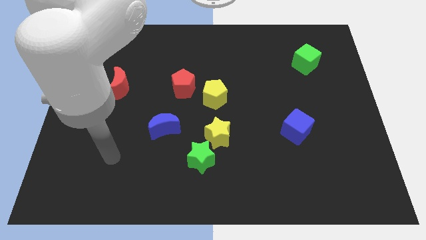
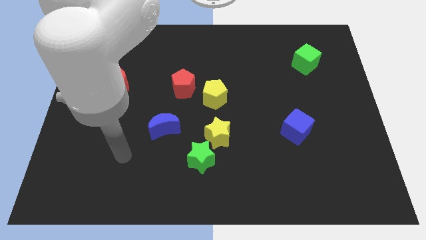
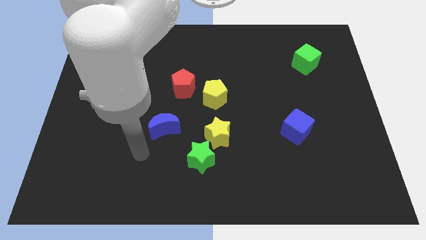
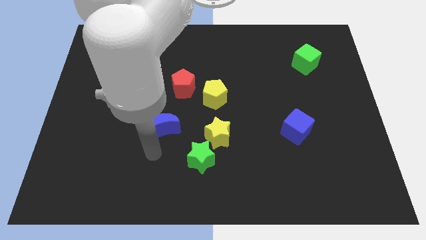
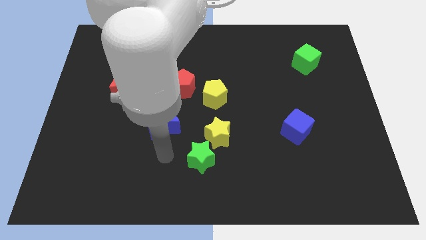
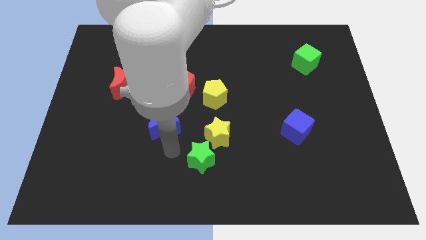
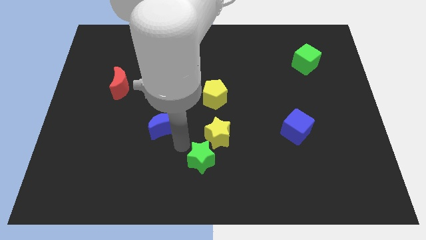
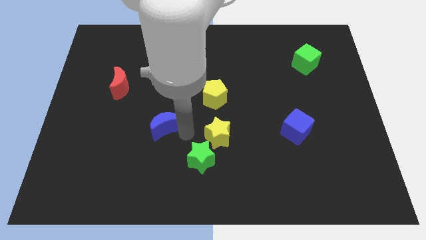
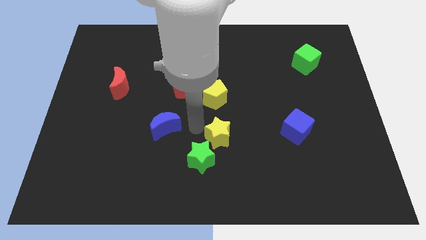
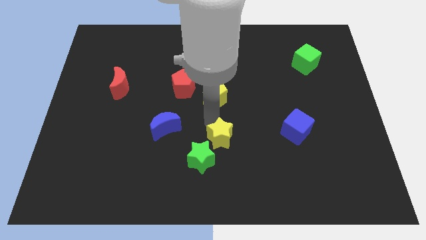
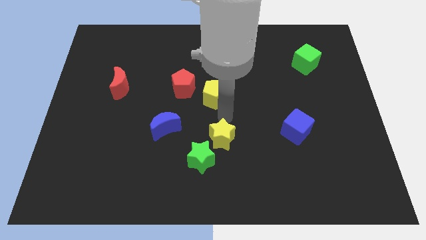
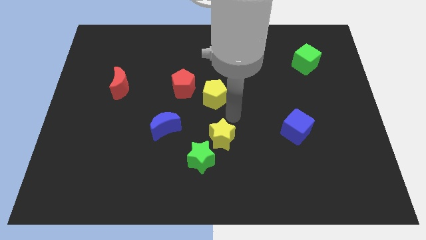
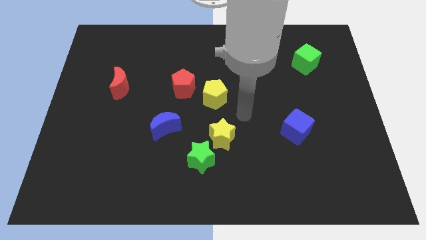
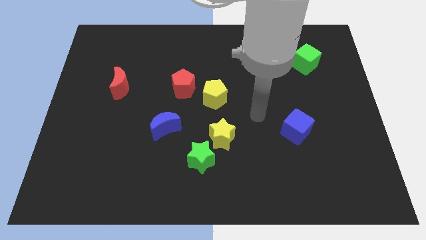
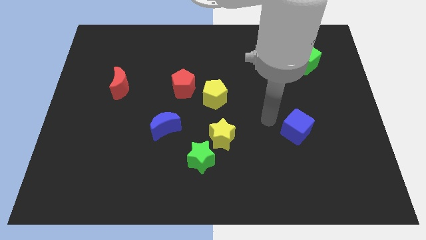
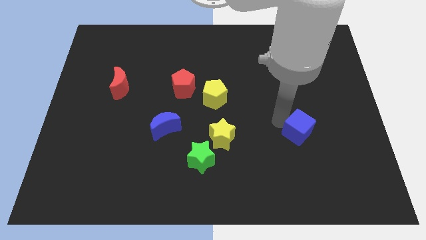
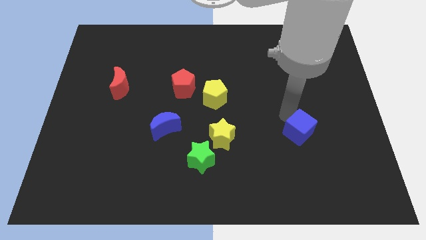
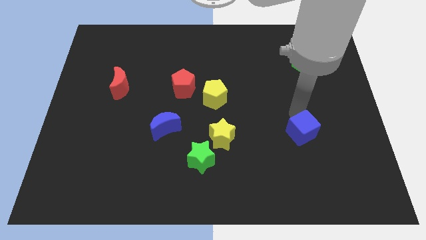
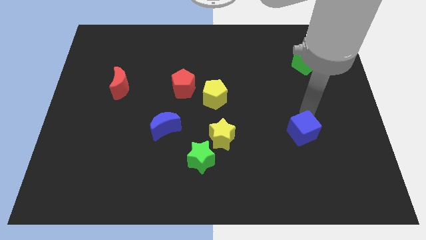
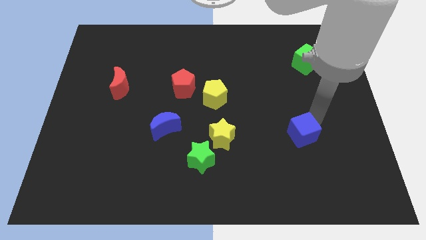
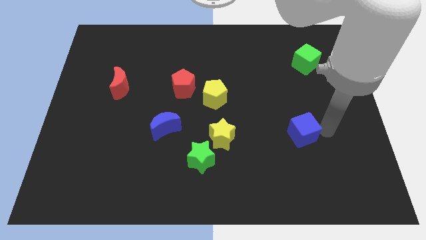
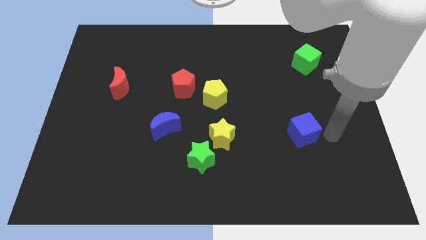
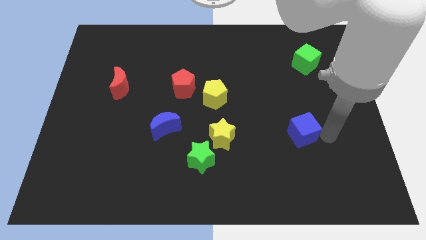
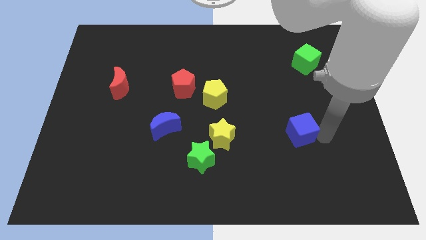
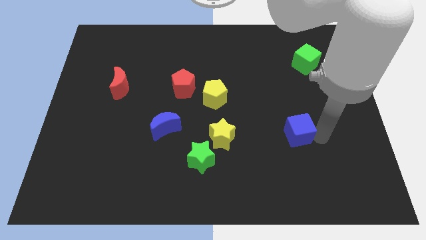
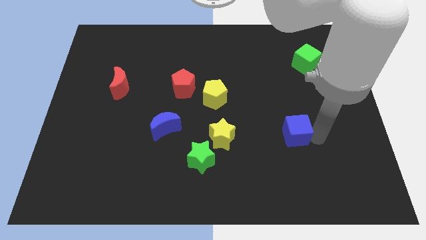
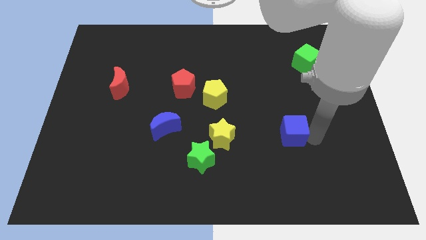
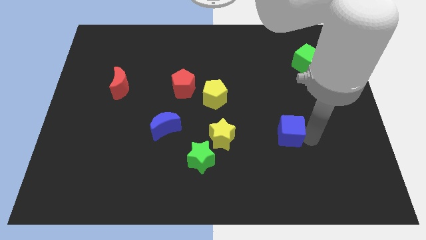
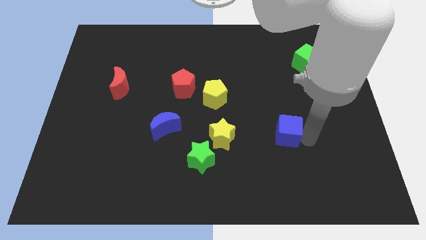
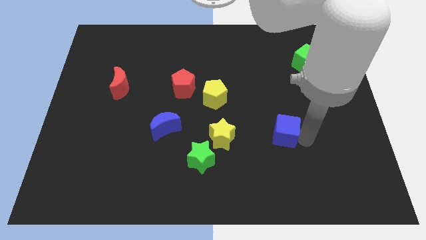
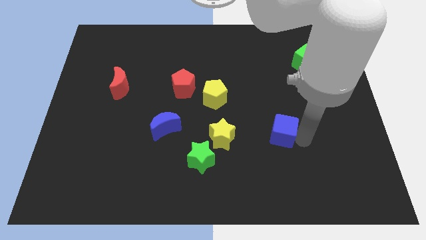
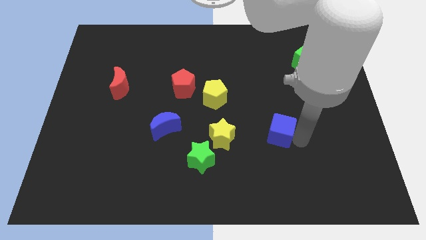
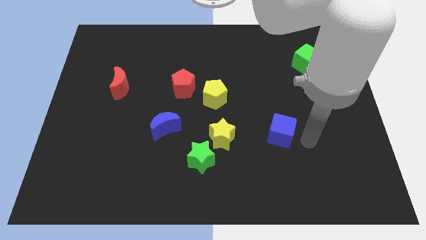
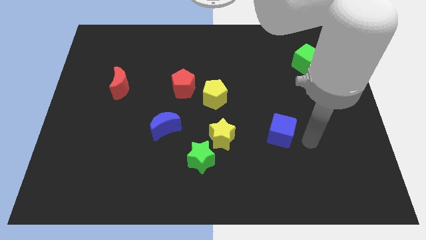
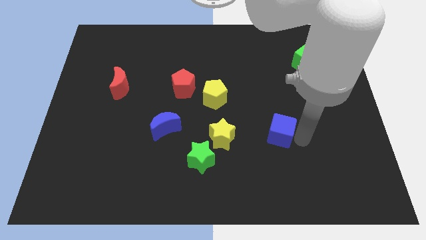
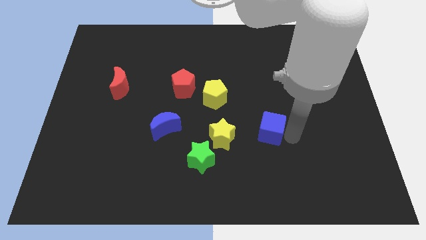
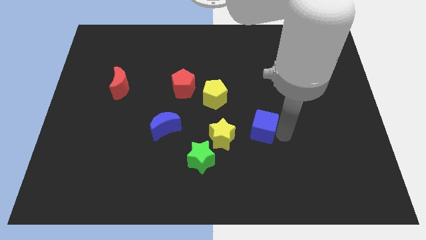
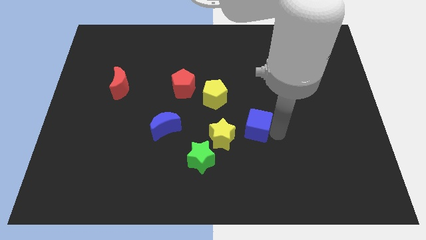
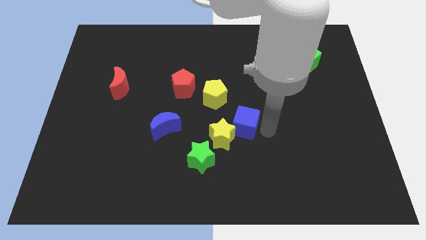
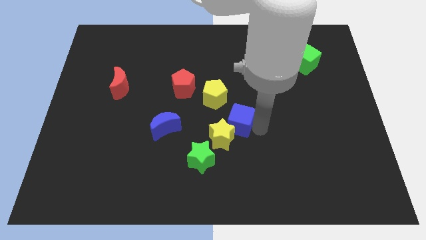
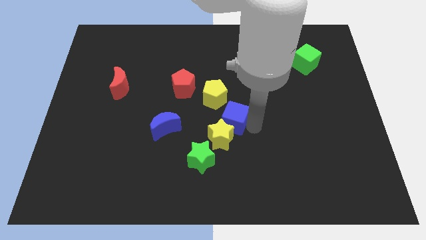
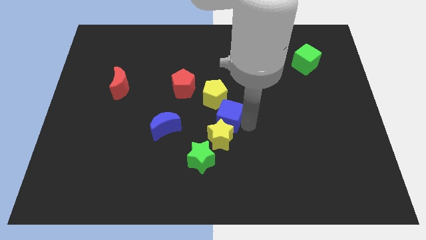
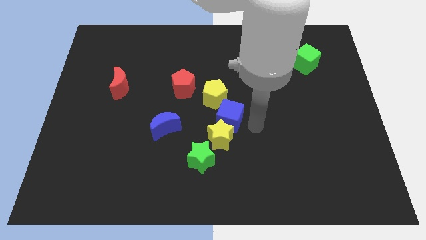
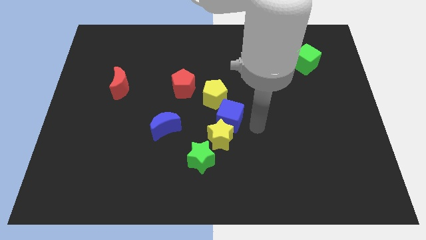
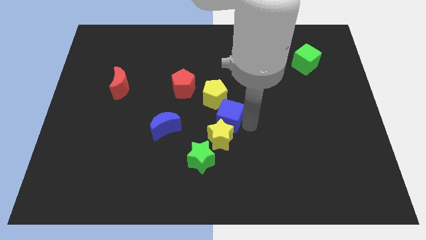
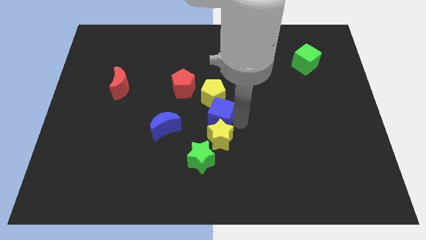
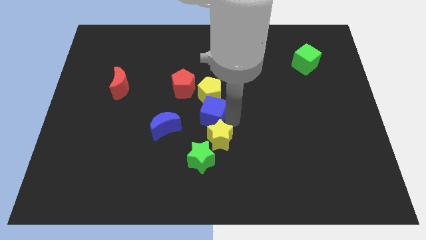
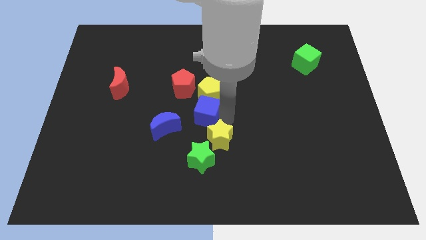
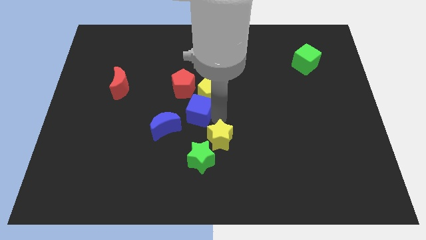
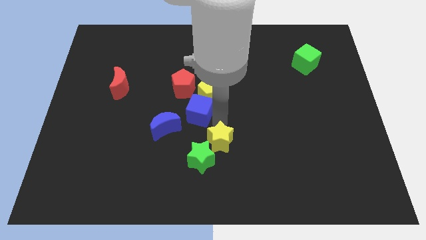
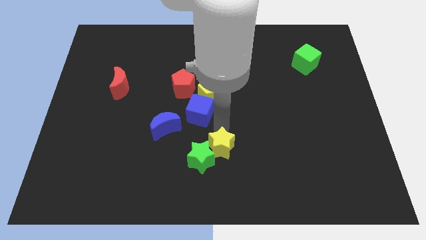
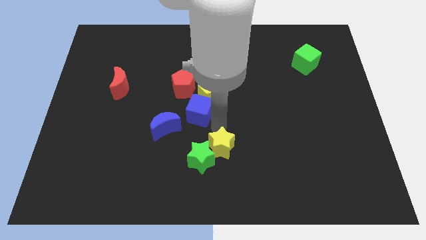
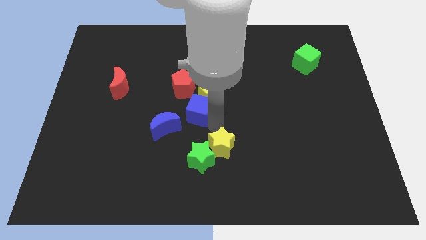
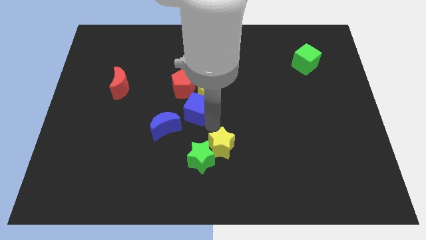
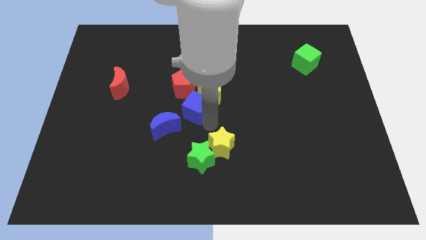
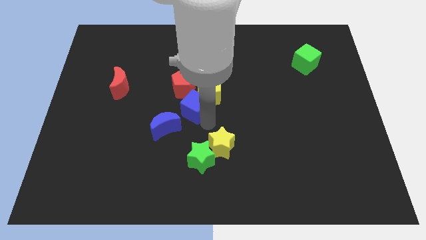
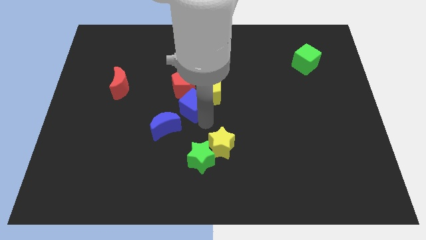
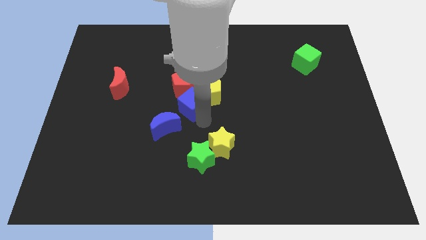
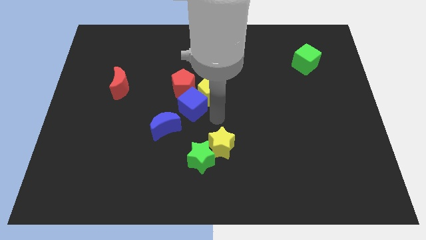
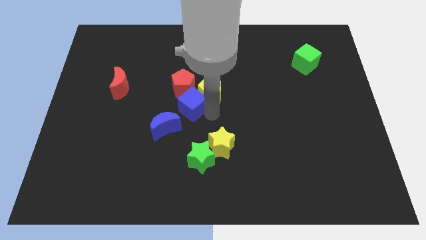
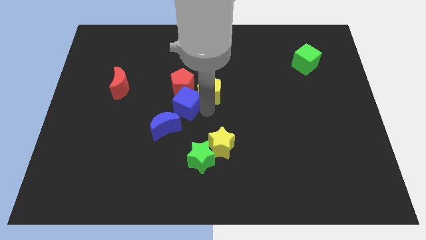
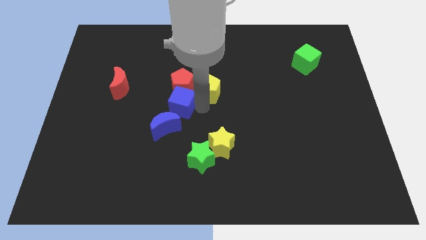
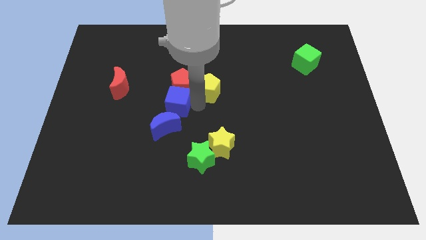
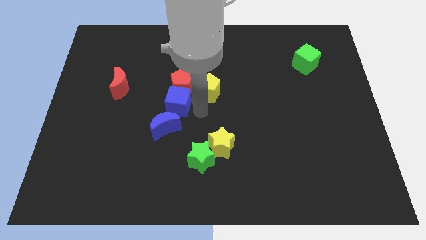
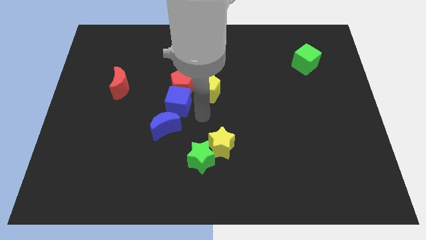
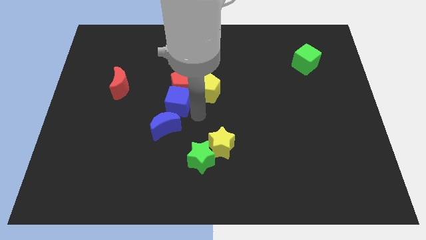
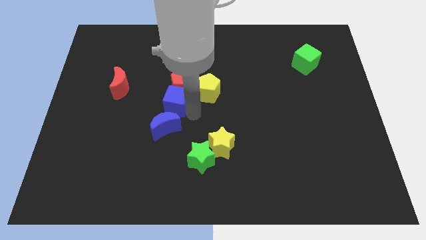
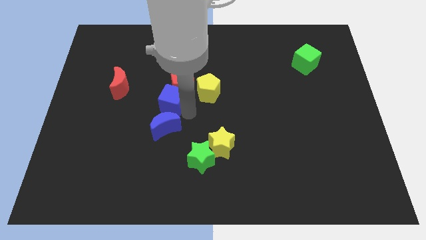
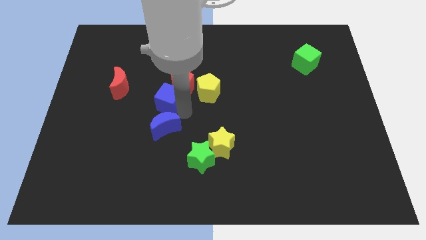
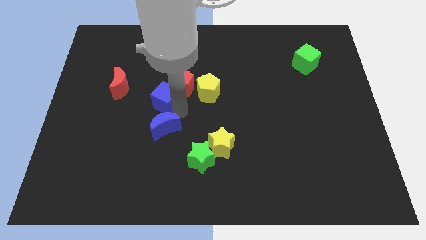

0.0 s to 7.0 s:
move the blue cube to the left of the red pentagon
